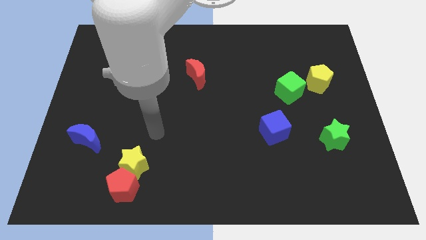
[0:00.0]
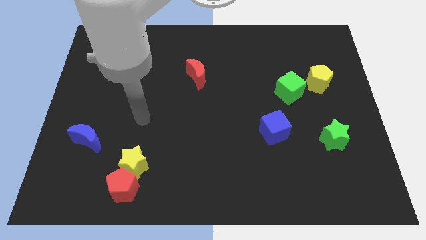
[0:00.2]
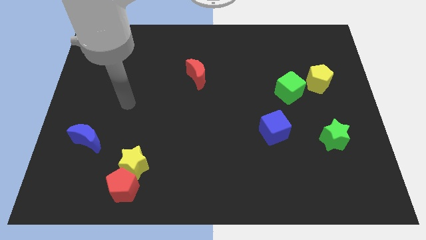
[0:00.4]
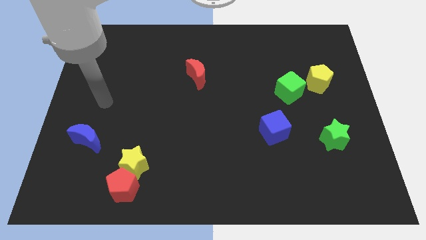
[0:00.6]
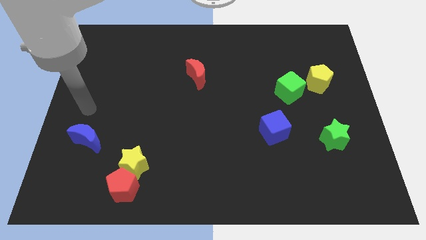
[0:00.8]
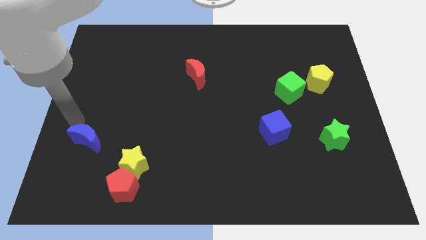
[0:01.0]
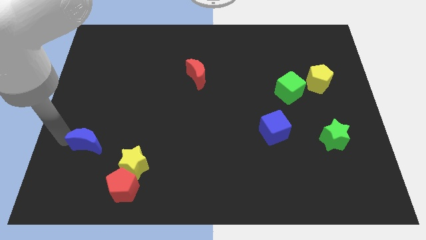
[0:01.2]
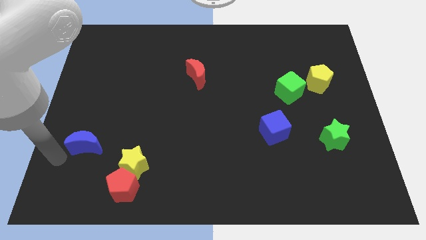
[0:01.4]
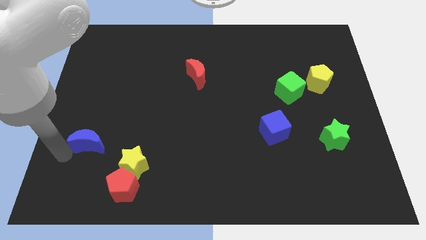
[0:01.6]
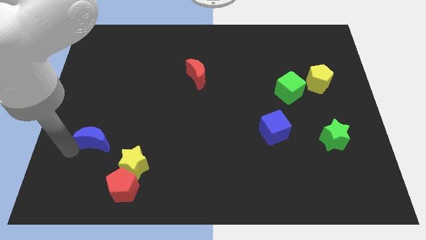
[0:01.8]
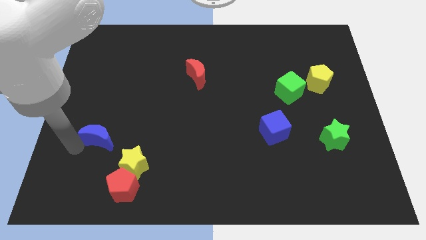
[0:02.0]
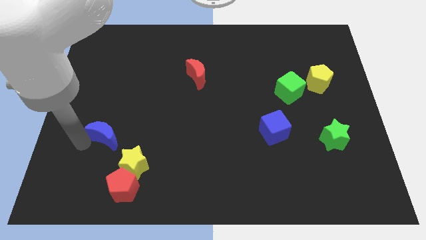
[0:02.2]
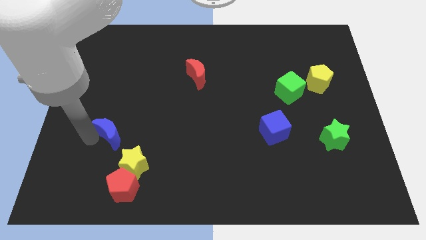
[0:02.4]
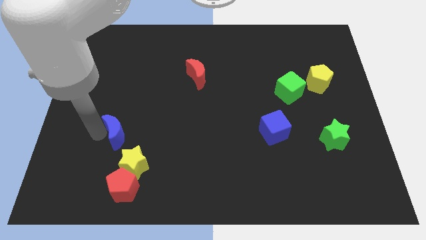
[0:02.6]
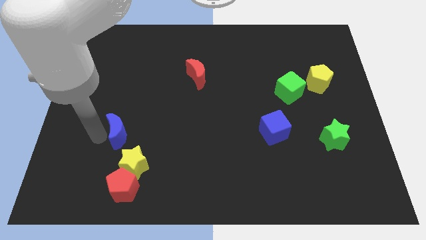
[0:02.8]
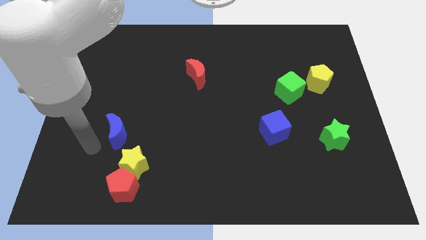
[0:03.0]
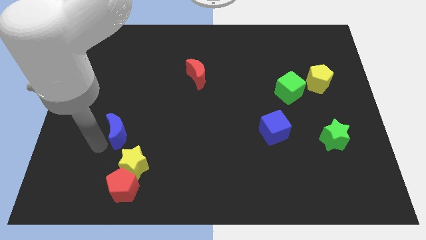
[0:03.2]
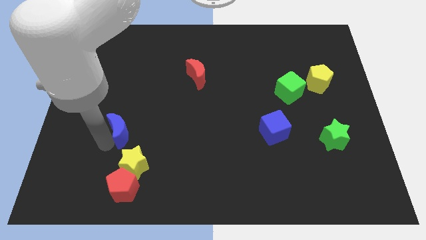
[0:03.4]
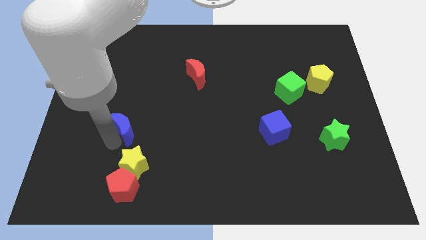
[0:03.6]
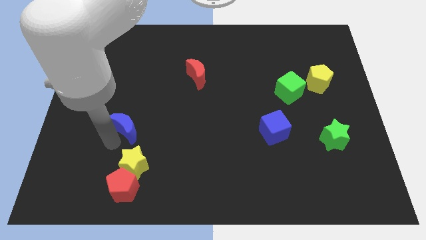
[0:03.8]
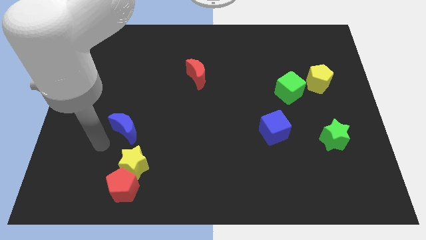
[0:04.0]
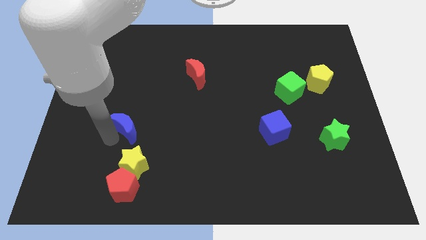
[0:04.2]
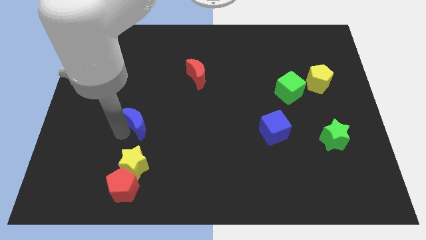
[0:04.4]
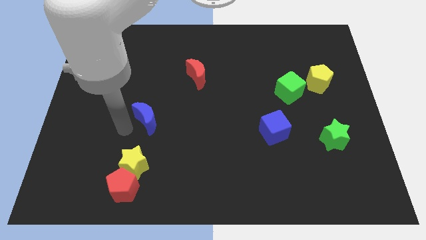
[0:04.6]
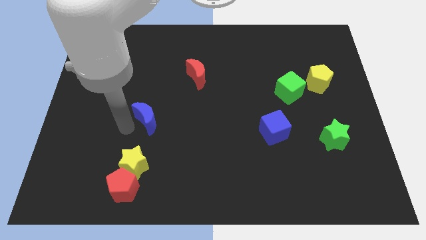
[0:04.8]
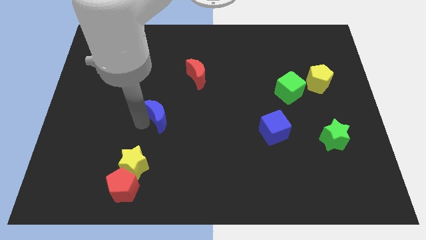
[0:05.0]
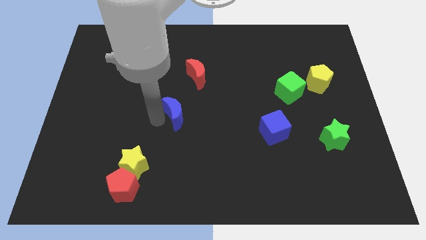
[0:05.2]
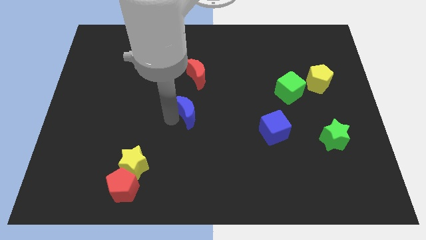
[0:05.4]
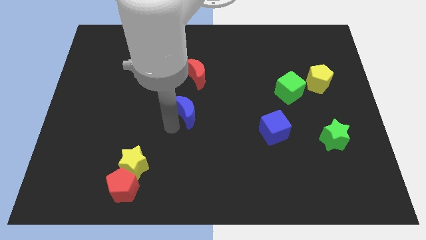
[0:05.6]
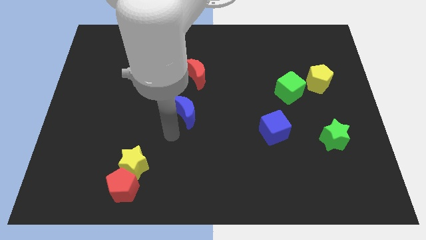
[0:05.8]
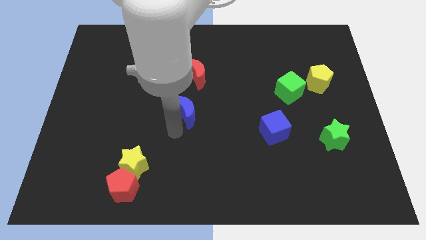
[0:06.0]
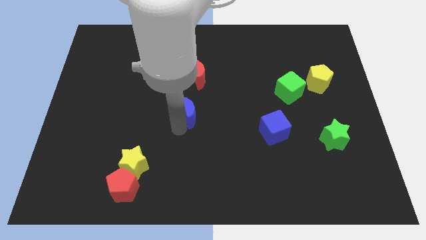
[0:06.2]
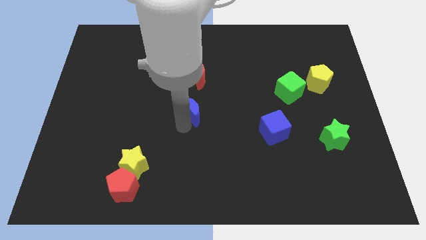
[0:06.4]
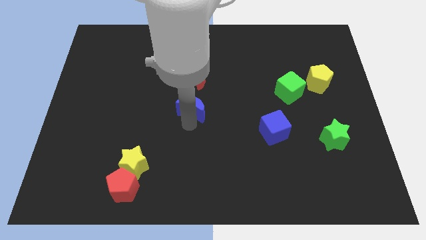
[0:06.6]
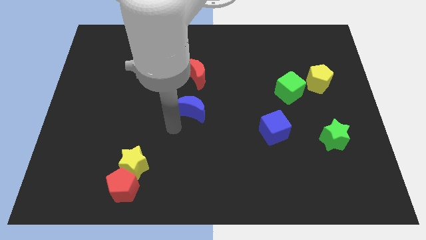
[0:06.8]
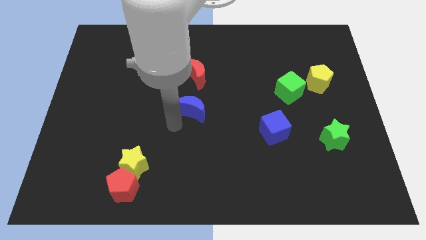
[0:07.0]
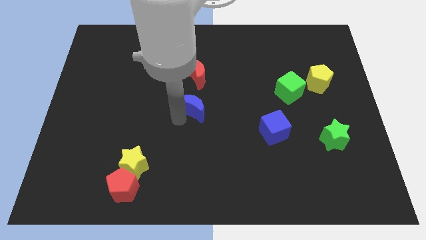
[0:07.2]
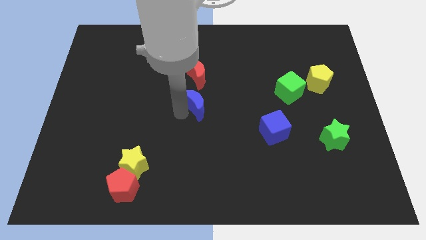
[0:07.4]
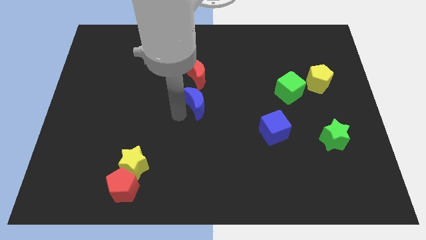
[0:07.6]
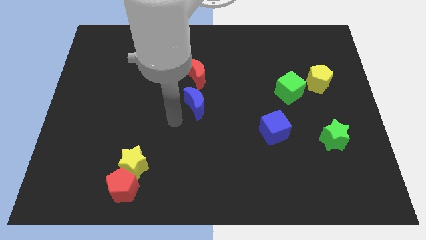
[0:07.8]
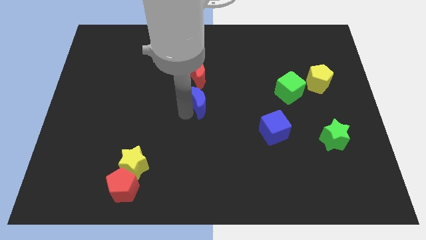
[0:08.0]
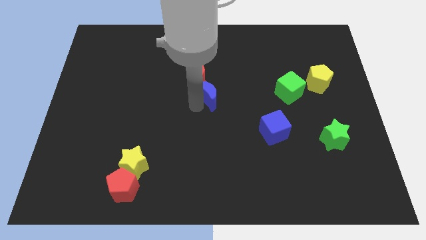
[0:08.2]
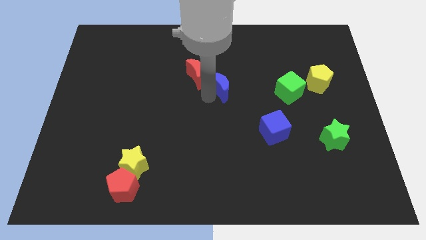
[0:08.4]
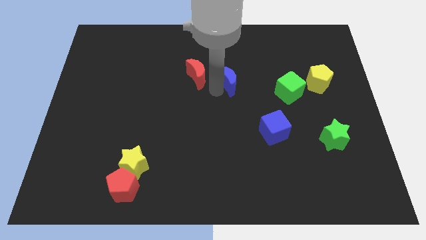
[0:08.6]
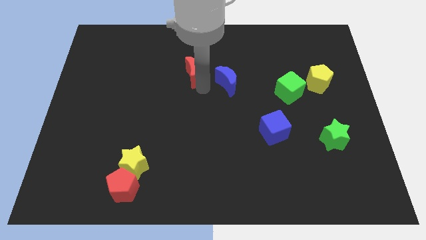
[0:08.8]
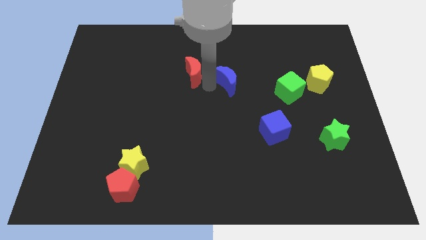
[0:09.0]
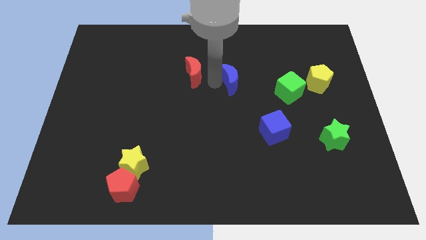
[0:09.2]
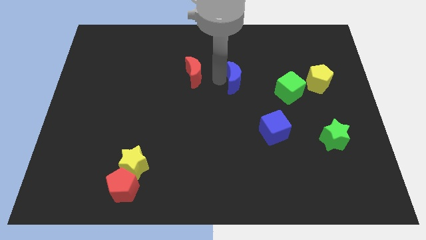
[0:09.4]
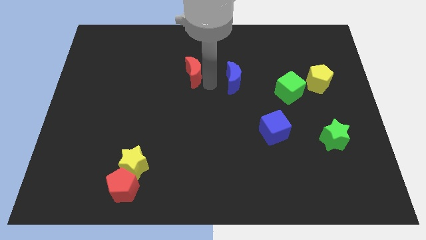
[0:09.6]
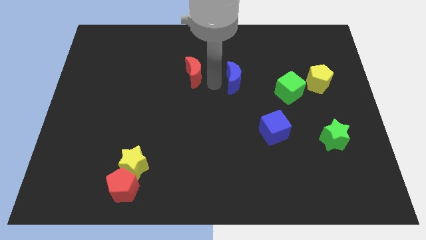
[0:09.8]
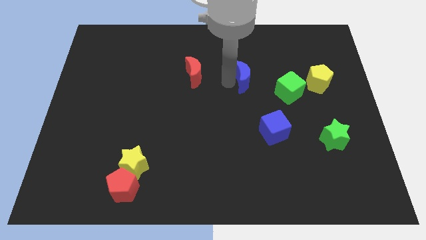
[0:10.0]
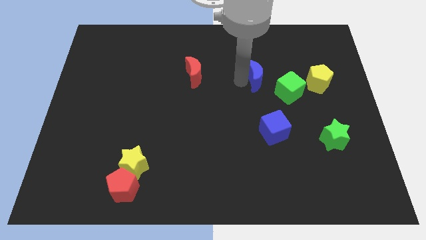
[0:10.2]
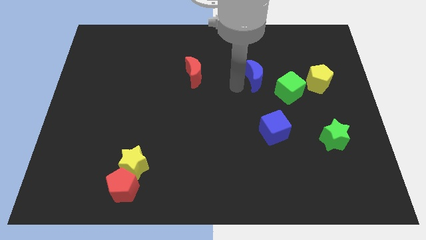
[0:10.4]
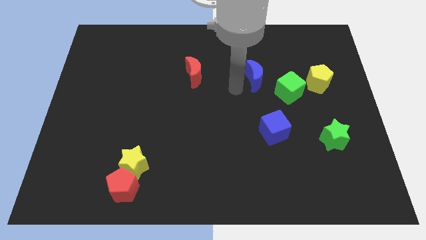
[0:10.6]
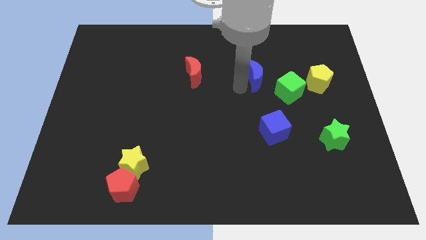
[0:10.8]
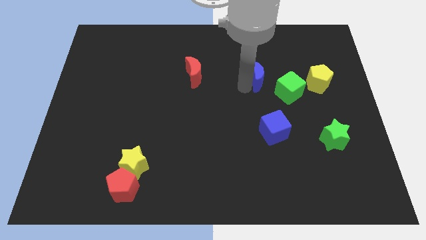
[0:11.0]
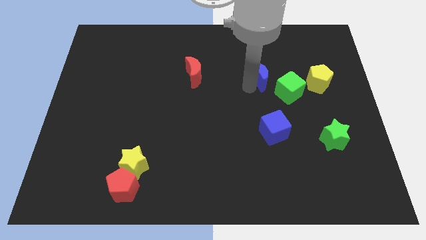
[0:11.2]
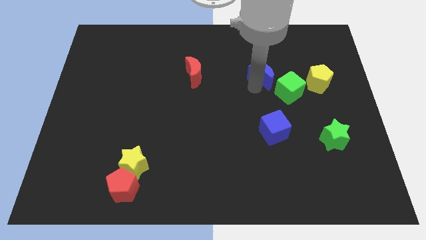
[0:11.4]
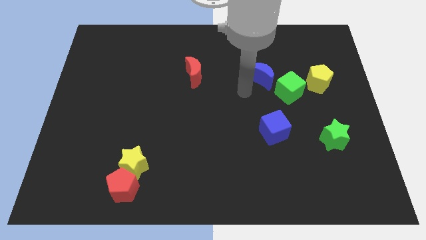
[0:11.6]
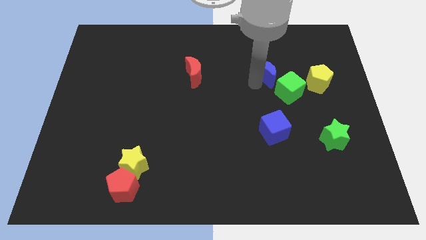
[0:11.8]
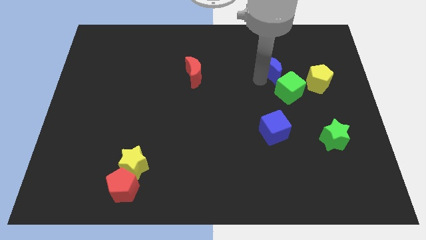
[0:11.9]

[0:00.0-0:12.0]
move the blue moon to the top of the green cube

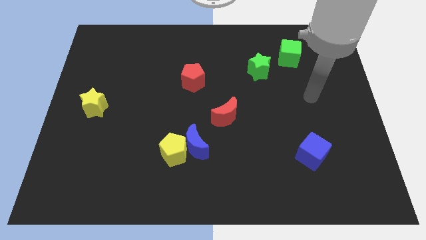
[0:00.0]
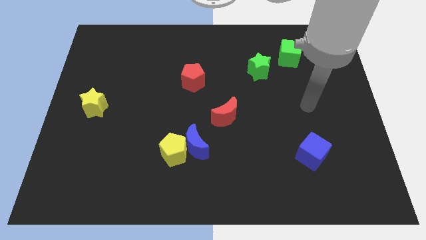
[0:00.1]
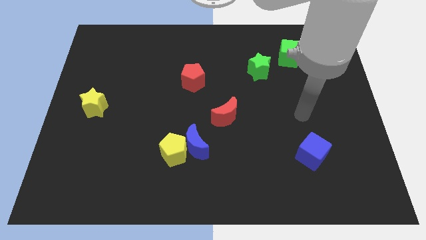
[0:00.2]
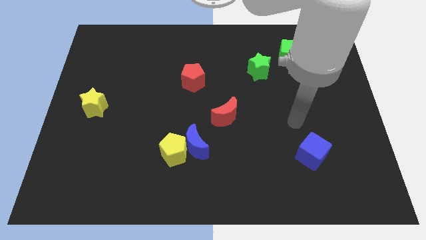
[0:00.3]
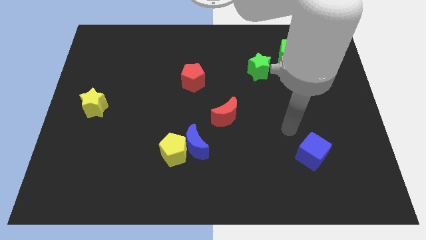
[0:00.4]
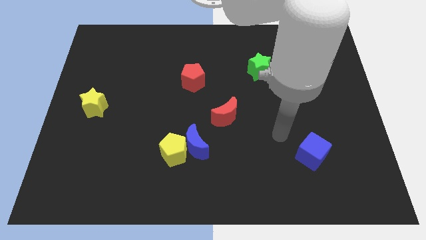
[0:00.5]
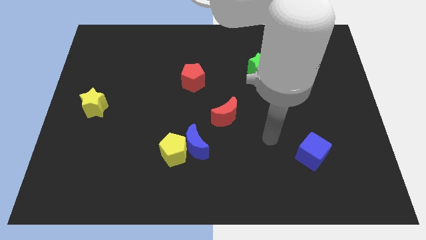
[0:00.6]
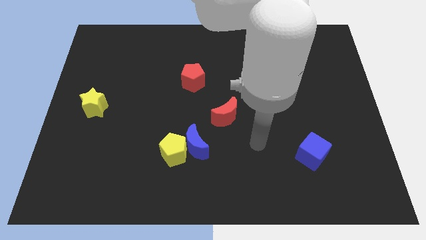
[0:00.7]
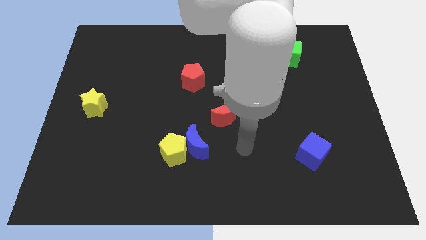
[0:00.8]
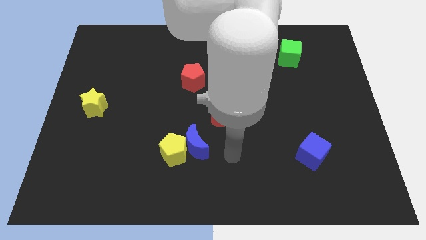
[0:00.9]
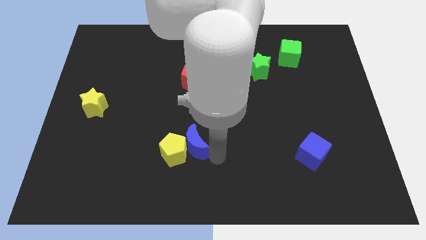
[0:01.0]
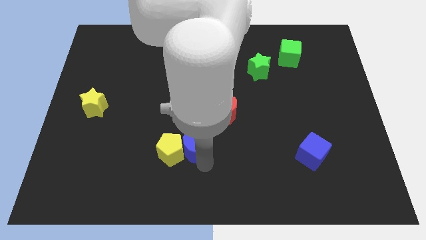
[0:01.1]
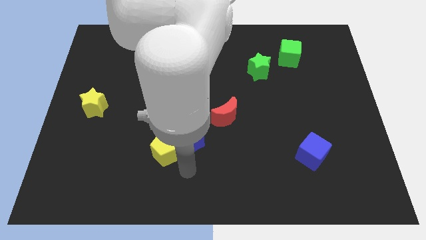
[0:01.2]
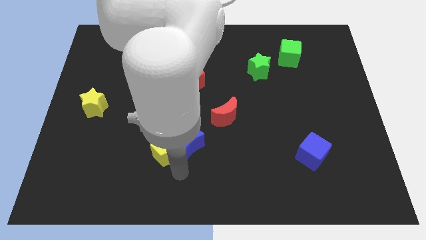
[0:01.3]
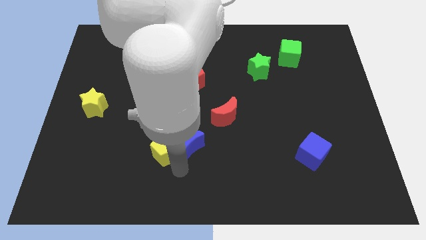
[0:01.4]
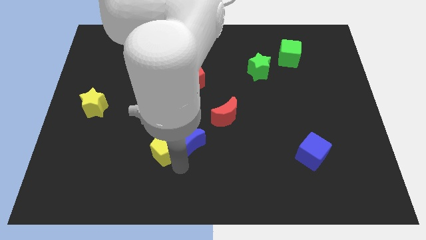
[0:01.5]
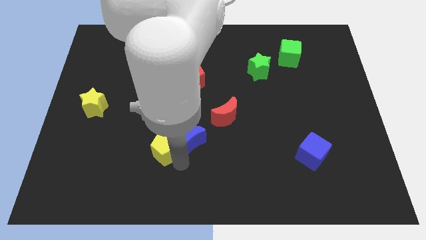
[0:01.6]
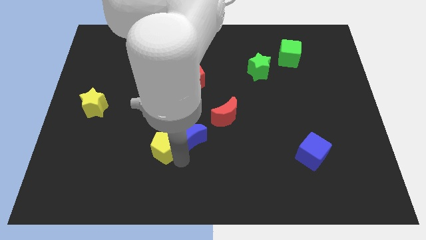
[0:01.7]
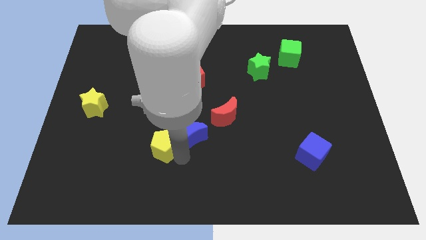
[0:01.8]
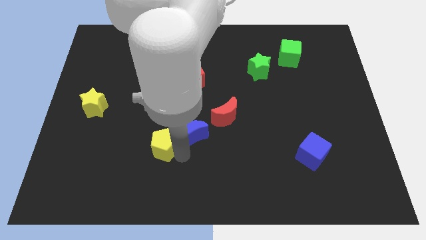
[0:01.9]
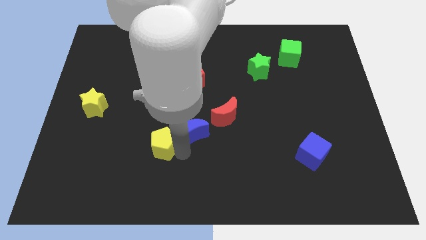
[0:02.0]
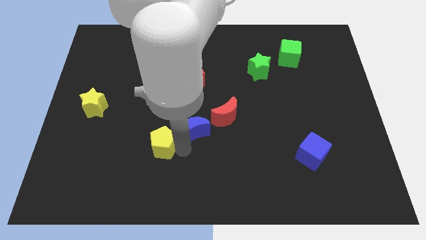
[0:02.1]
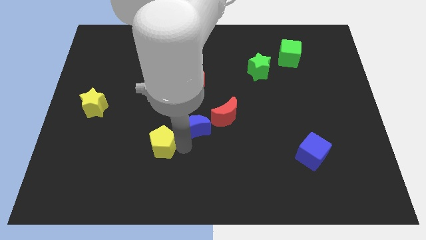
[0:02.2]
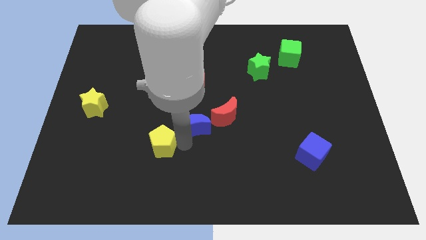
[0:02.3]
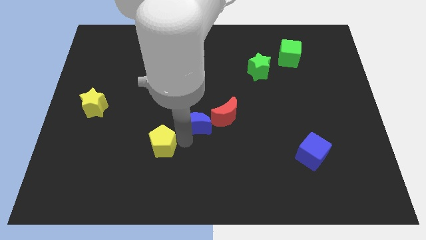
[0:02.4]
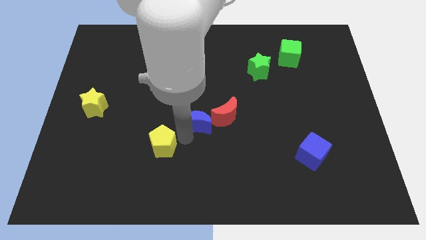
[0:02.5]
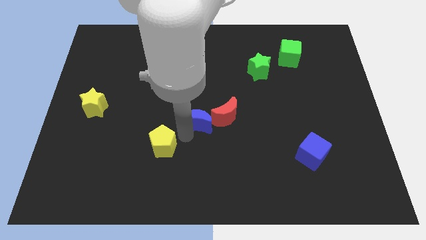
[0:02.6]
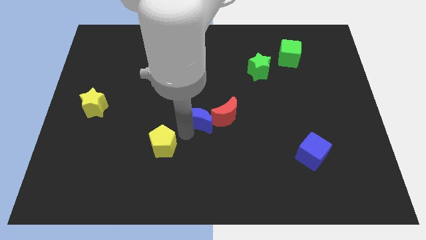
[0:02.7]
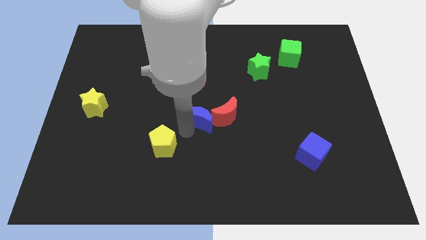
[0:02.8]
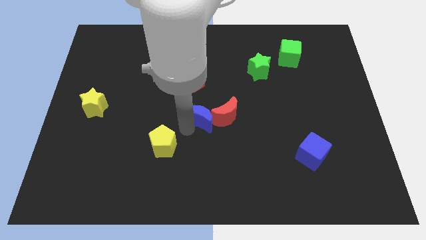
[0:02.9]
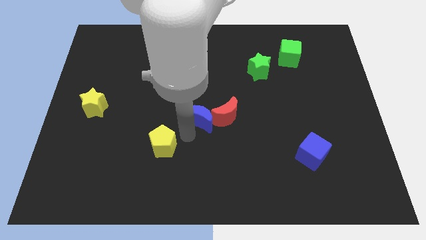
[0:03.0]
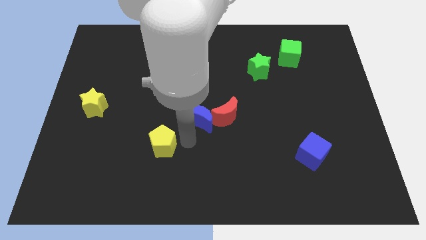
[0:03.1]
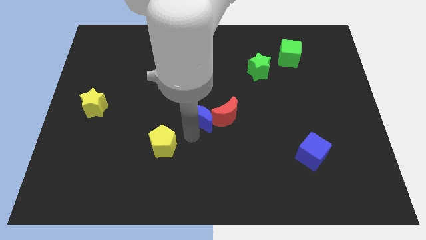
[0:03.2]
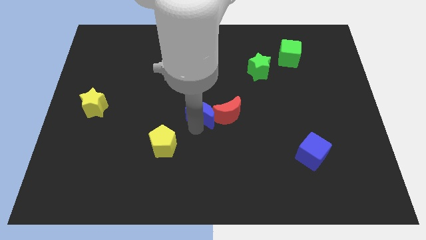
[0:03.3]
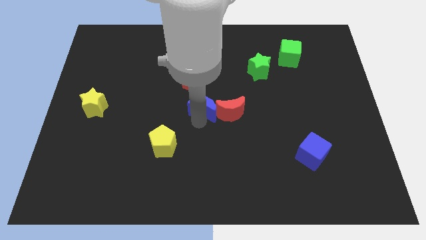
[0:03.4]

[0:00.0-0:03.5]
move the blue moon to the bottom right side of the red pentagon
